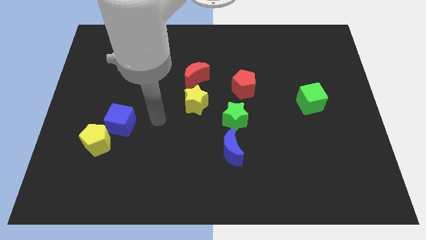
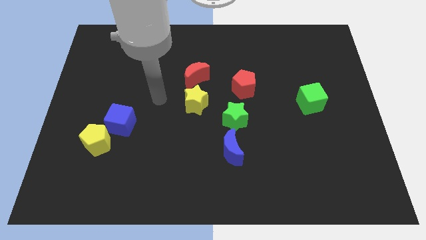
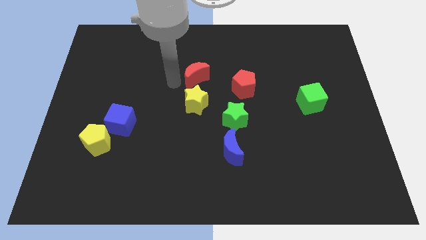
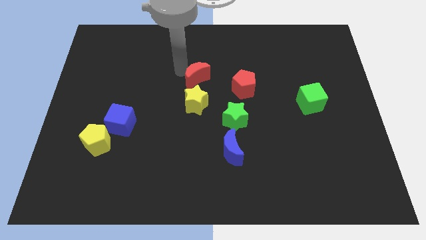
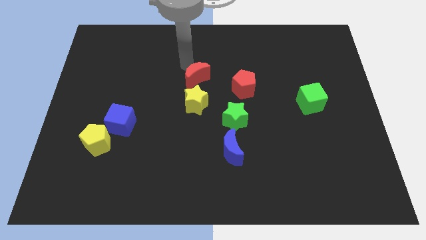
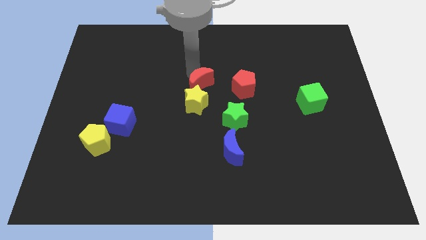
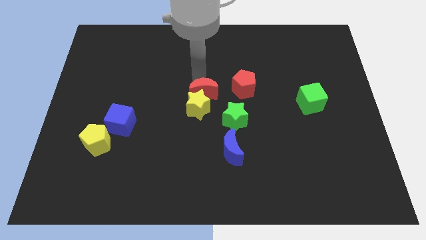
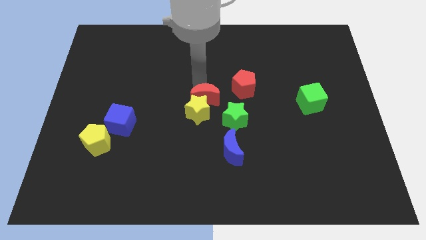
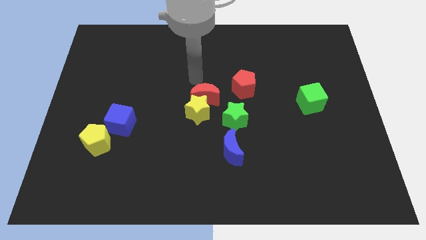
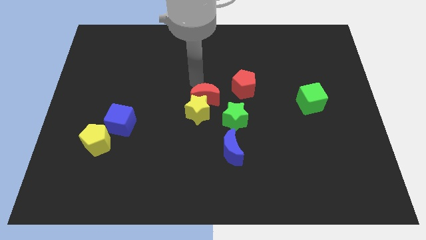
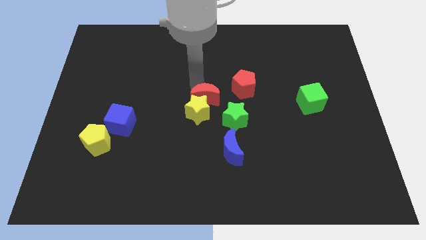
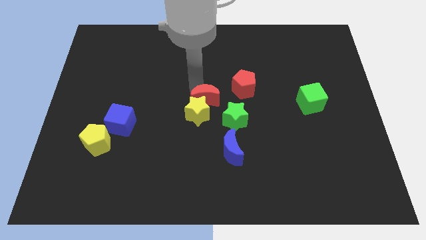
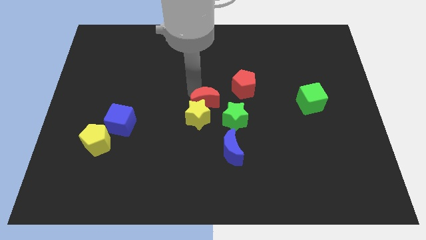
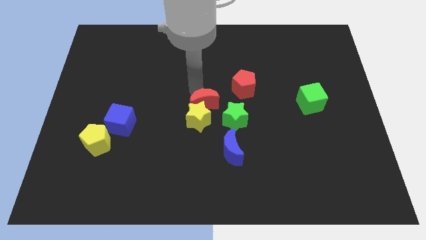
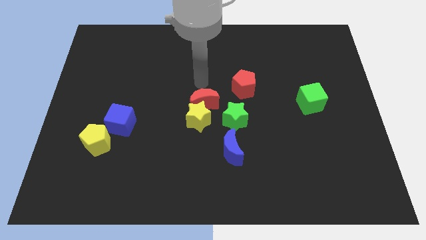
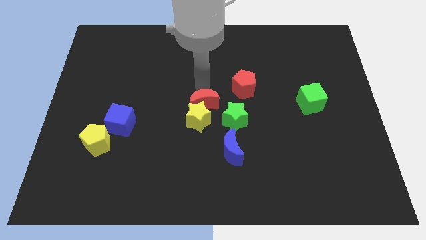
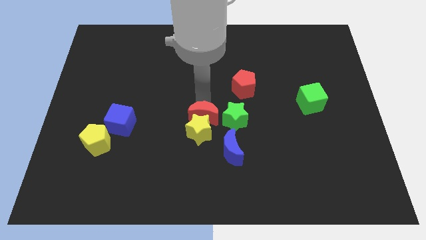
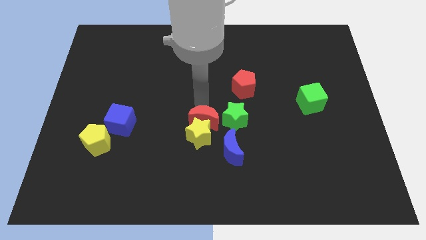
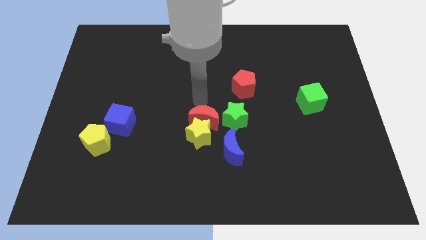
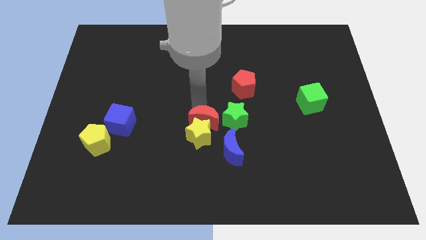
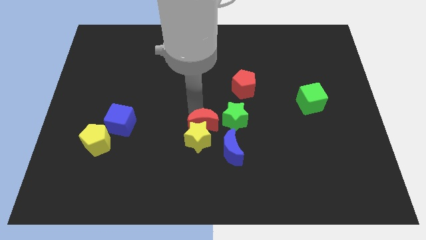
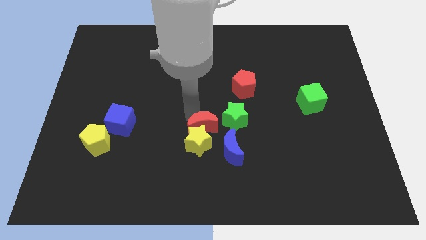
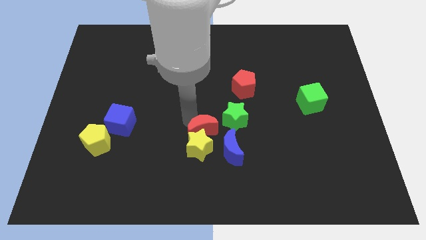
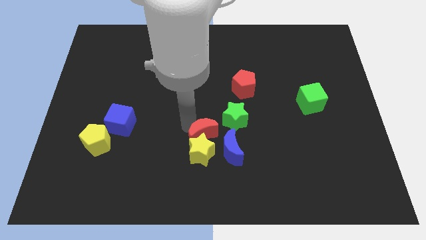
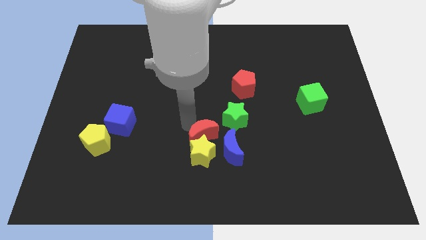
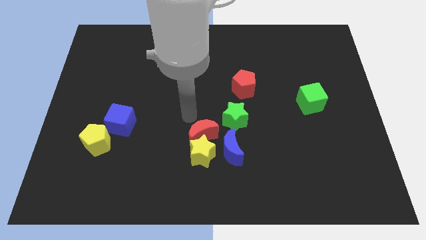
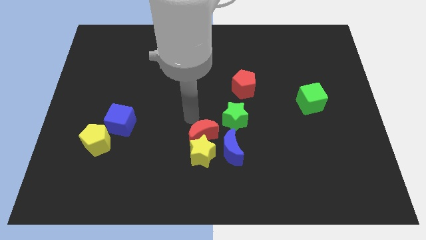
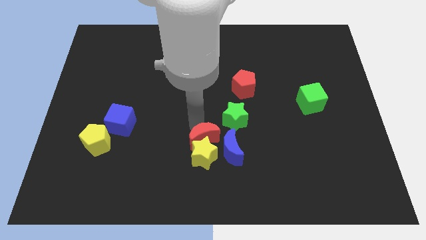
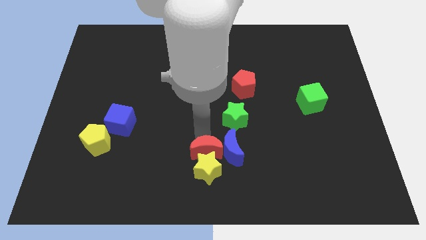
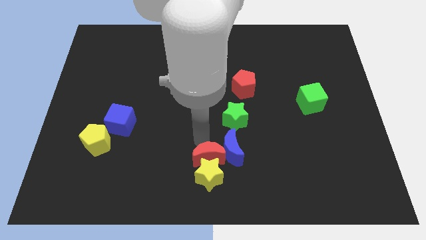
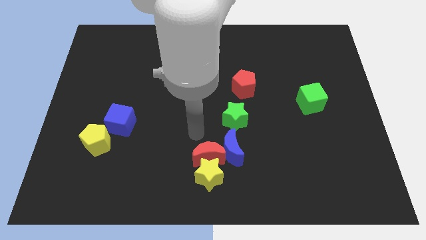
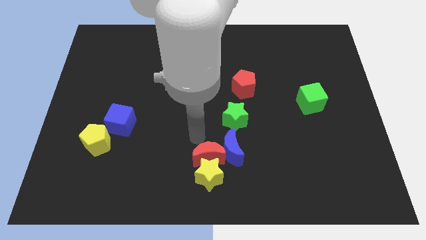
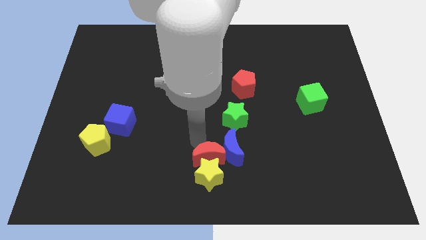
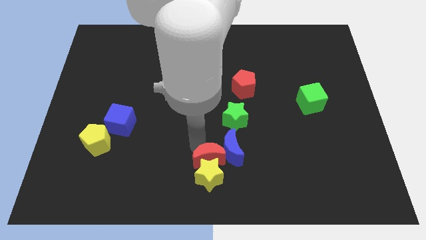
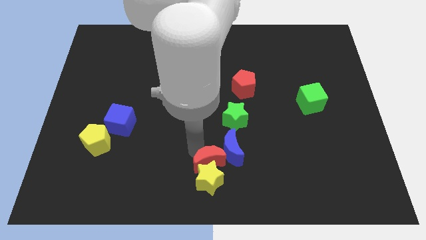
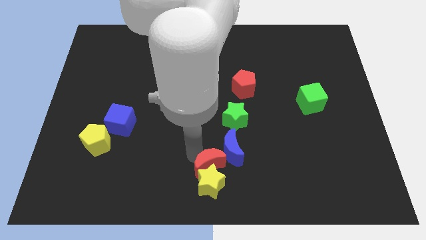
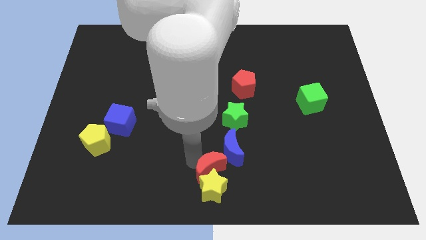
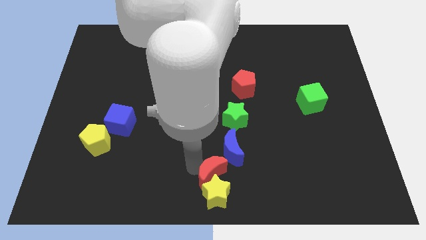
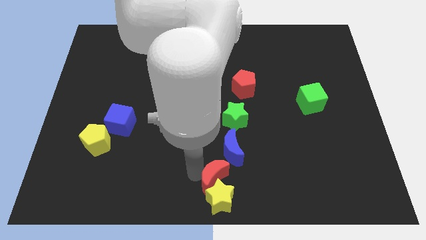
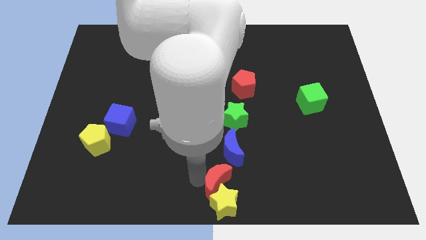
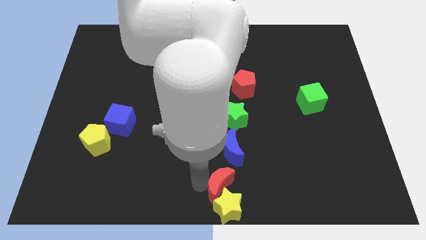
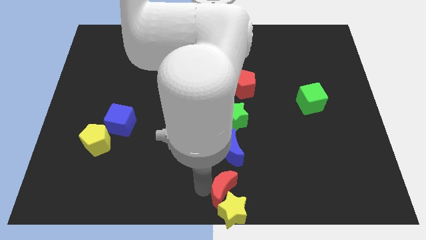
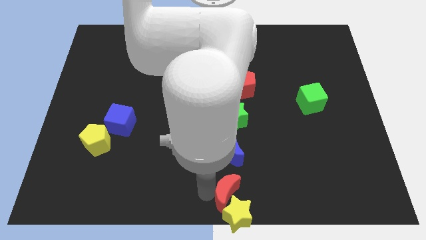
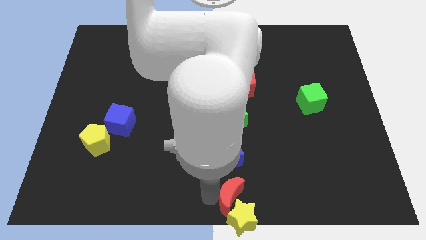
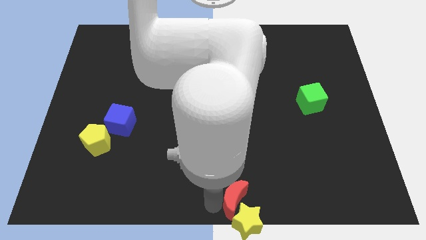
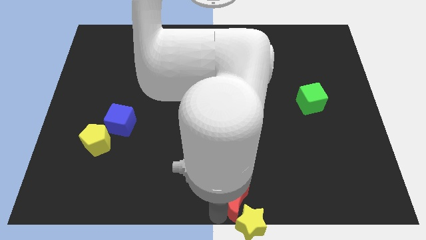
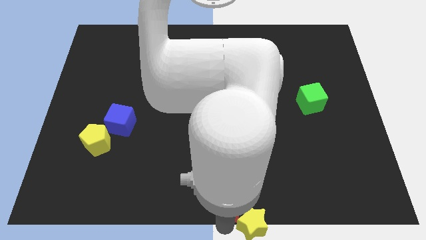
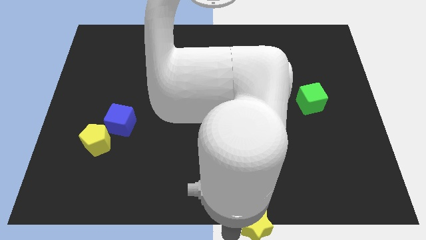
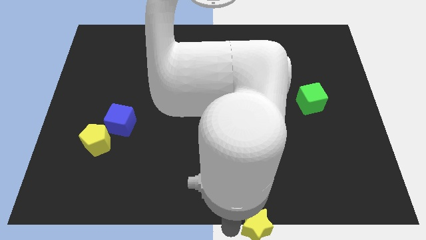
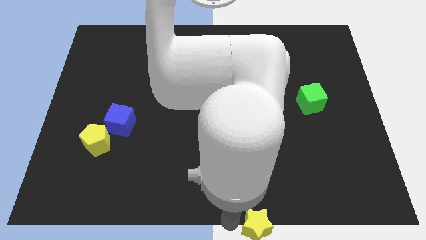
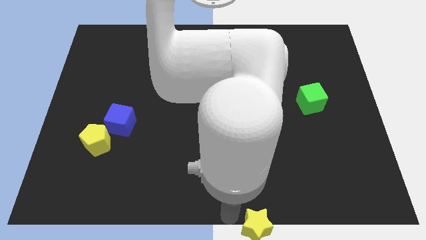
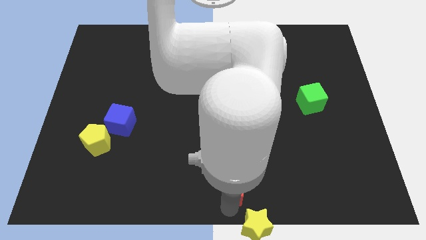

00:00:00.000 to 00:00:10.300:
put the red moon to the bottom side of the green star

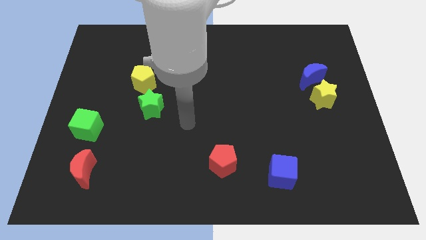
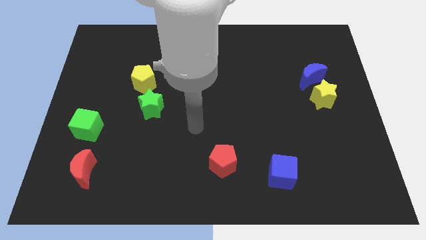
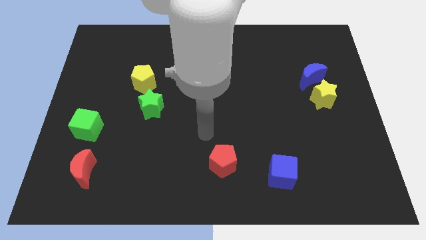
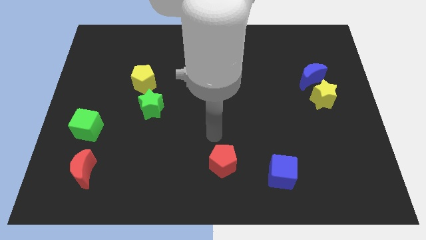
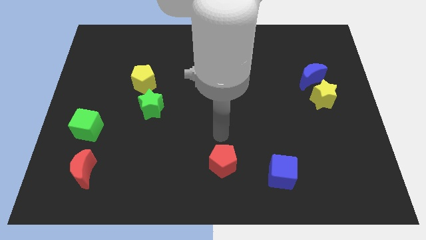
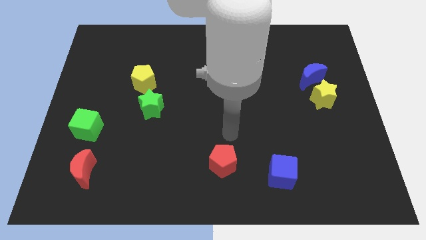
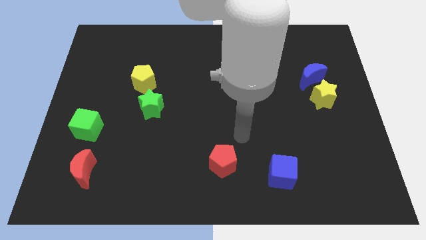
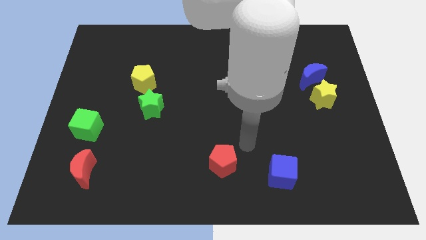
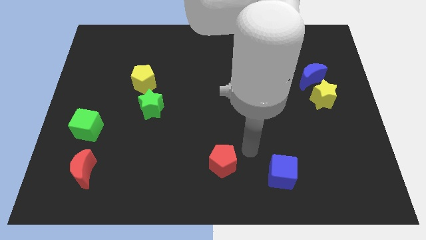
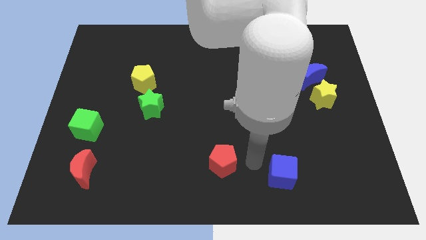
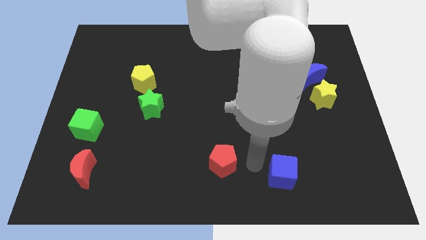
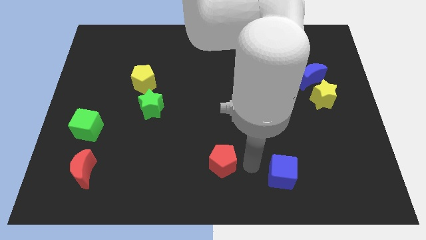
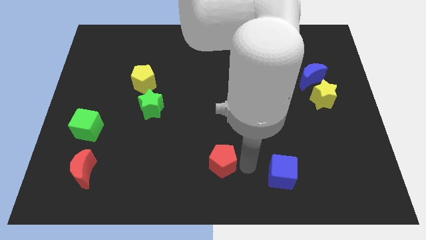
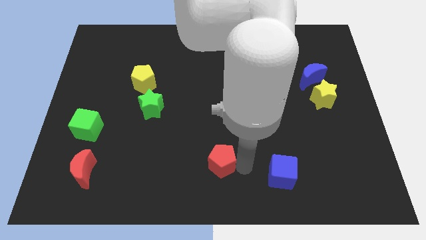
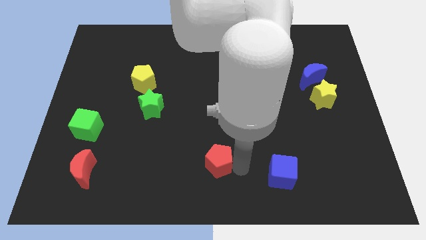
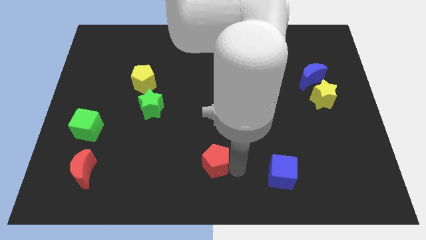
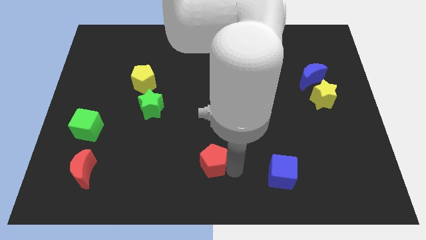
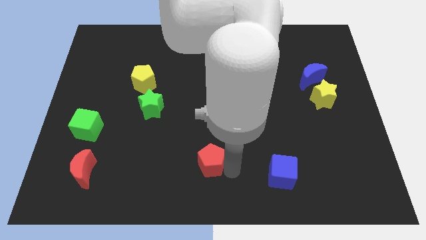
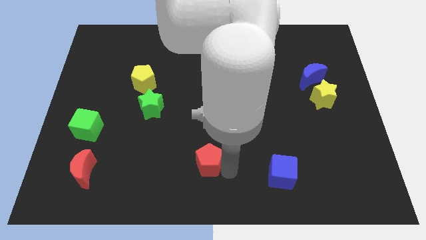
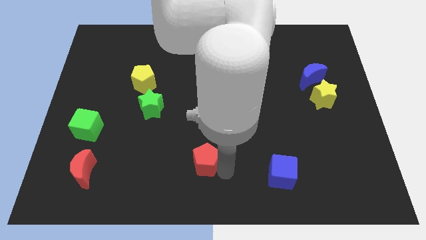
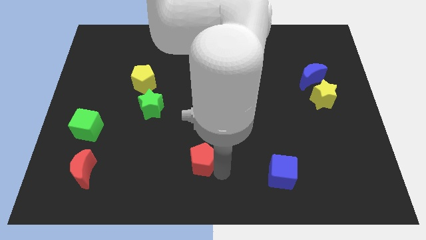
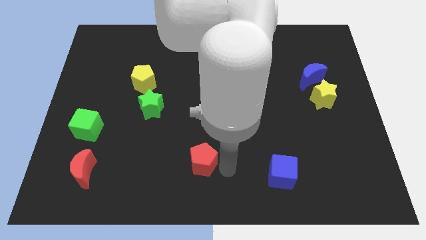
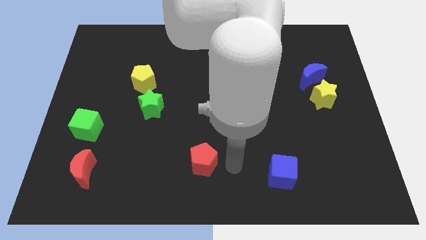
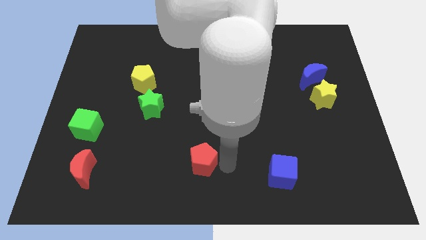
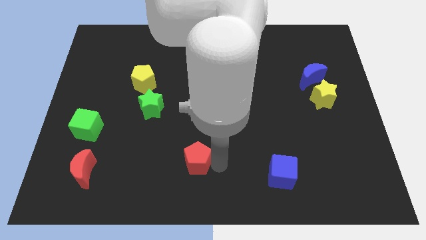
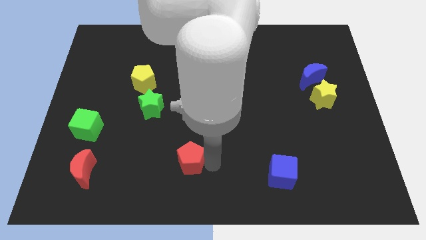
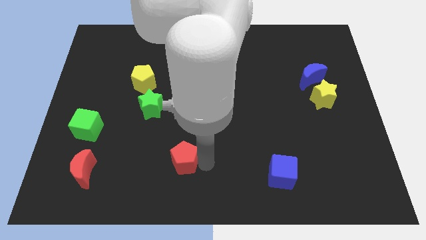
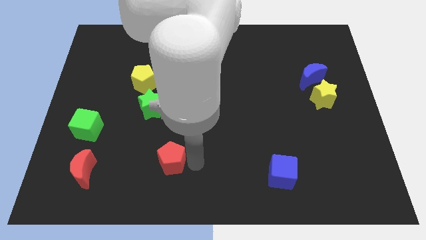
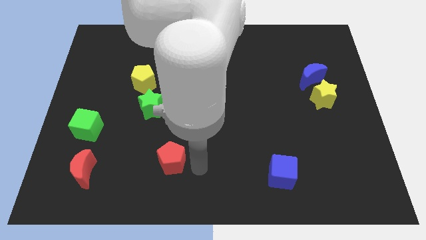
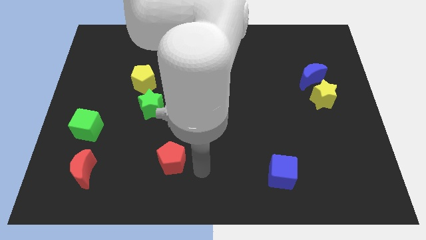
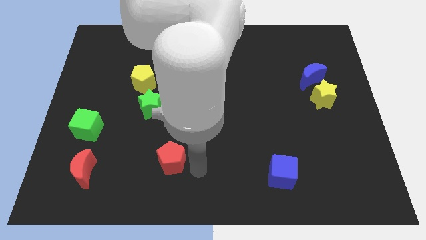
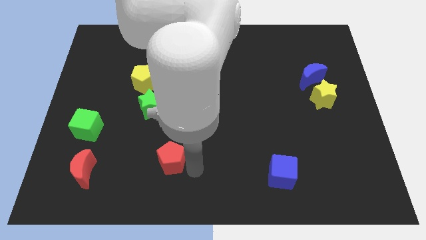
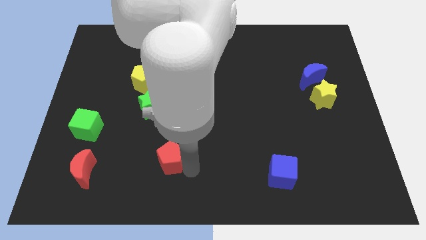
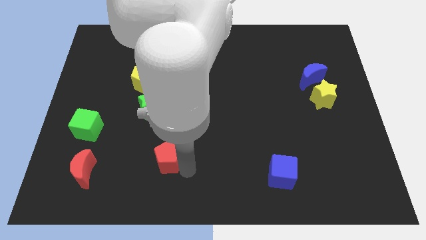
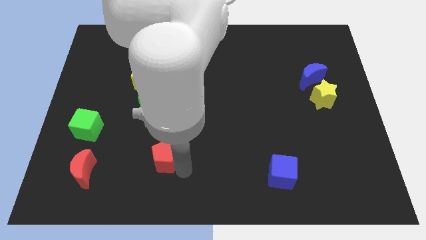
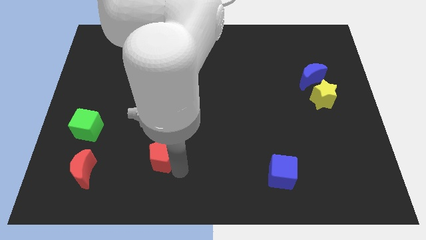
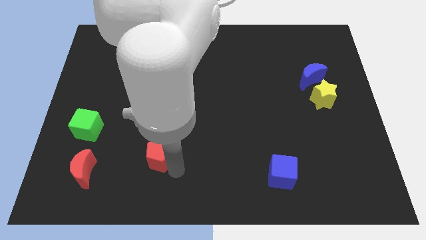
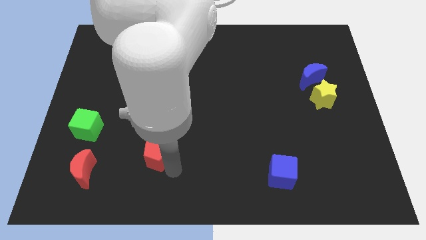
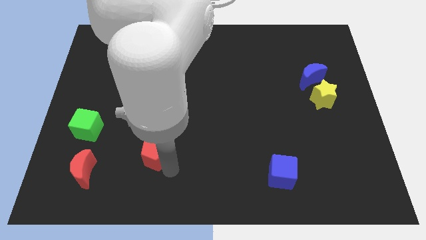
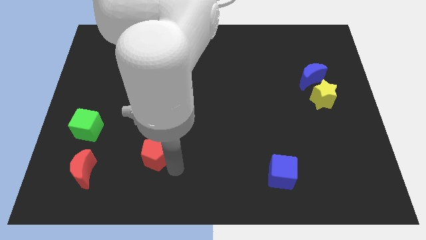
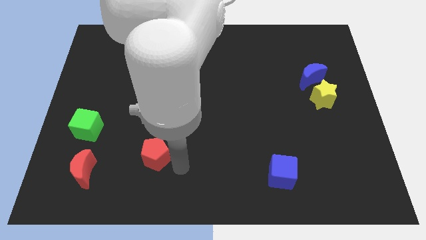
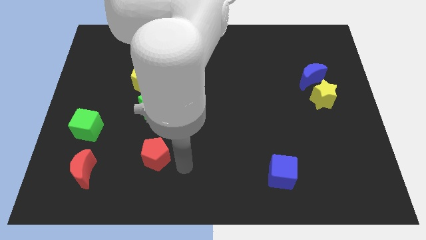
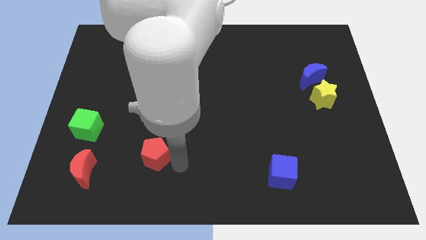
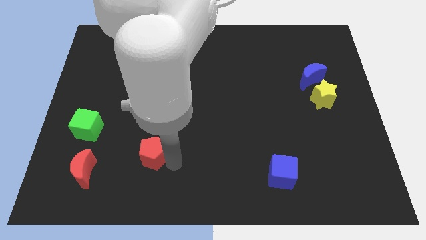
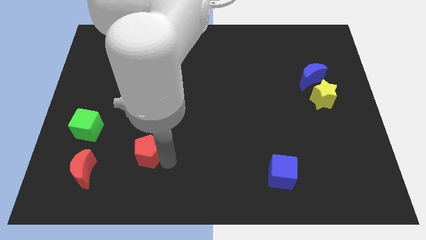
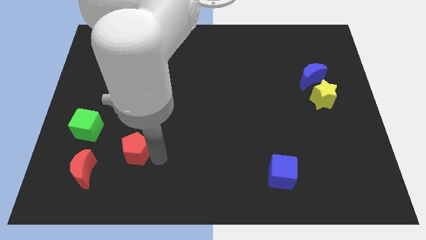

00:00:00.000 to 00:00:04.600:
move the red pentagon diagonally up and to the right of the red moon
